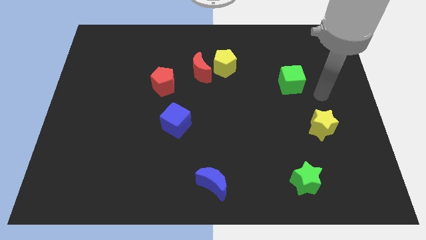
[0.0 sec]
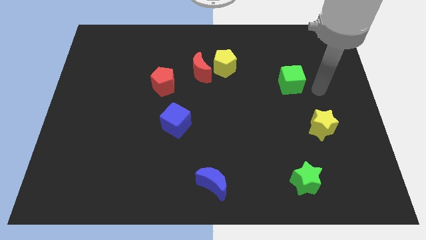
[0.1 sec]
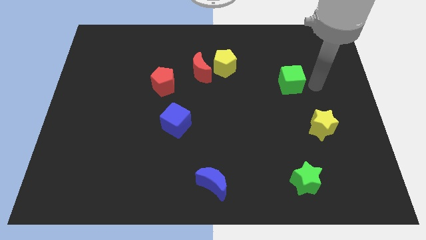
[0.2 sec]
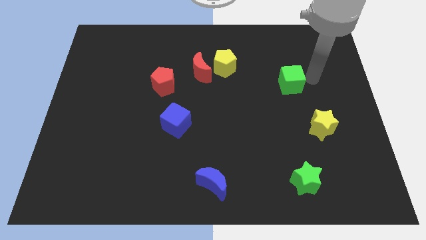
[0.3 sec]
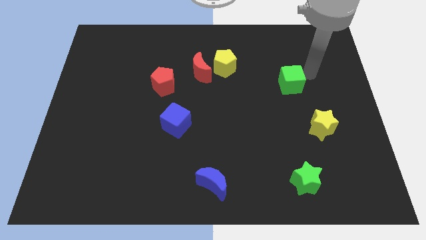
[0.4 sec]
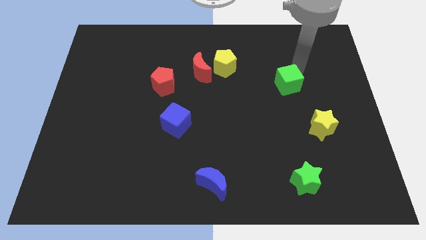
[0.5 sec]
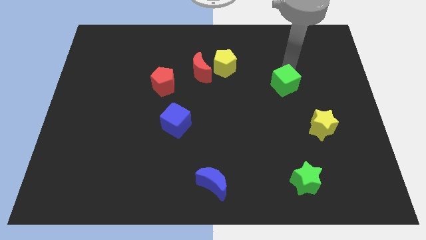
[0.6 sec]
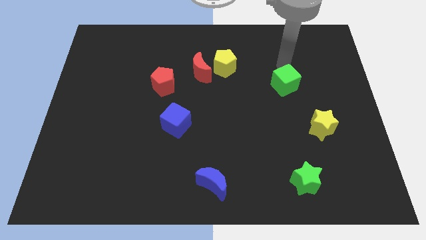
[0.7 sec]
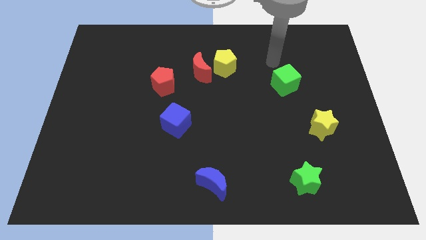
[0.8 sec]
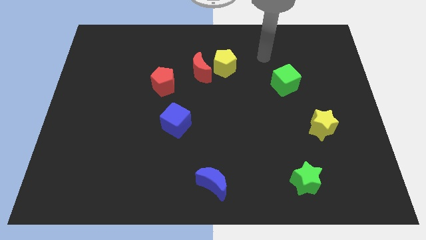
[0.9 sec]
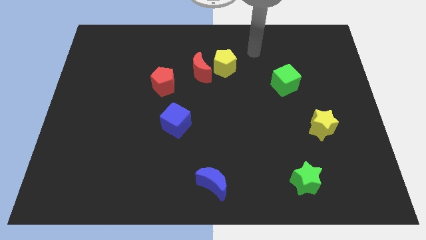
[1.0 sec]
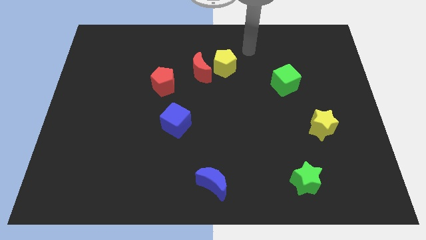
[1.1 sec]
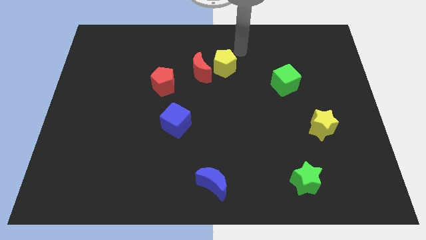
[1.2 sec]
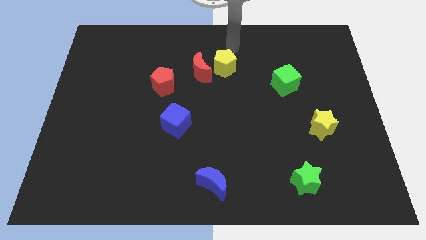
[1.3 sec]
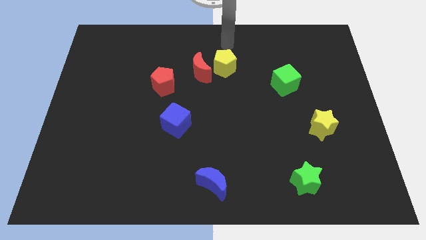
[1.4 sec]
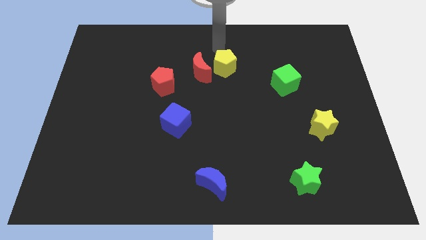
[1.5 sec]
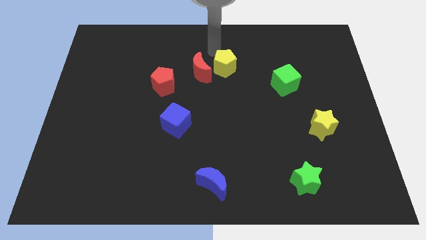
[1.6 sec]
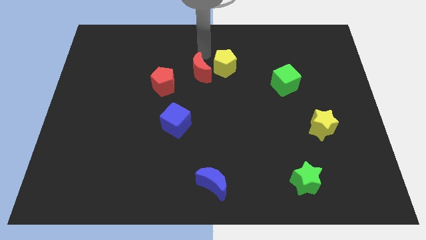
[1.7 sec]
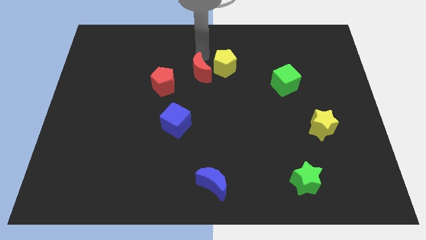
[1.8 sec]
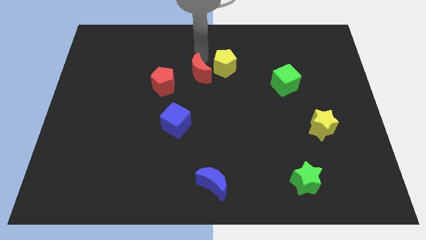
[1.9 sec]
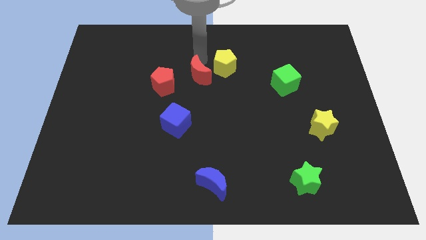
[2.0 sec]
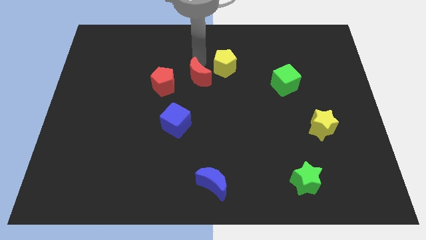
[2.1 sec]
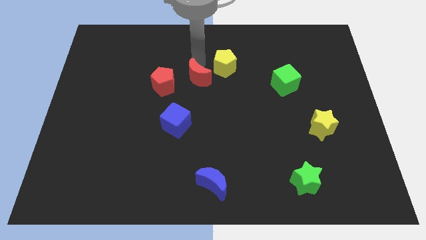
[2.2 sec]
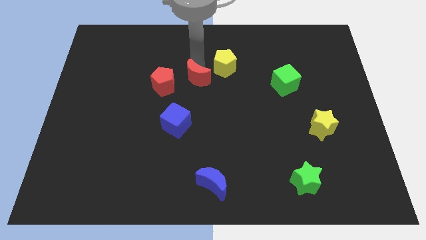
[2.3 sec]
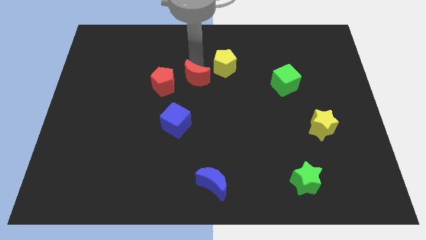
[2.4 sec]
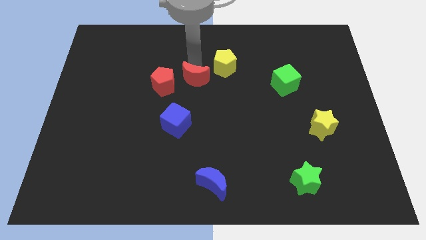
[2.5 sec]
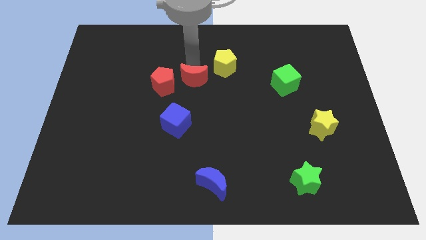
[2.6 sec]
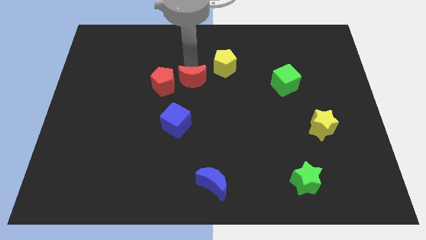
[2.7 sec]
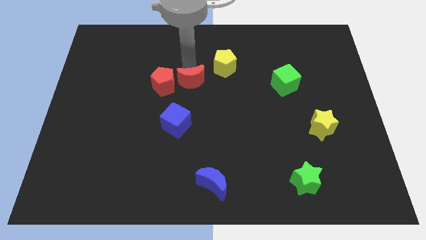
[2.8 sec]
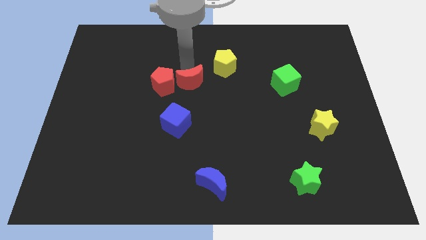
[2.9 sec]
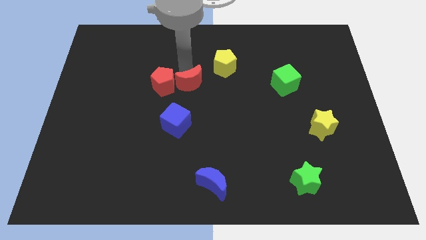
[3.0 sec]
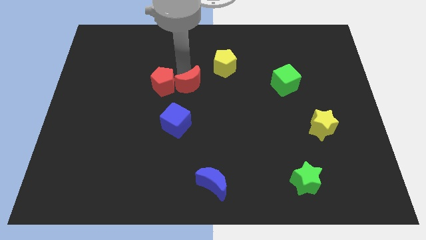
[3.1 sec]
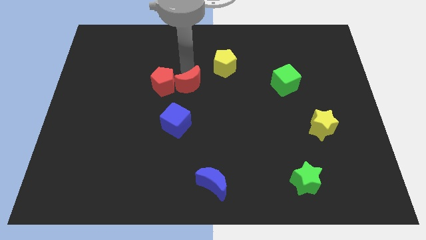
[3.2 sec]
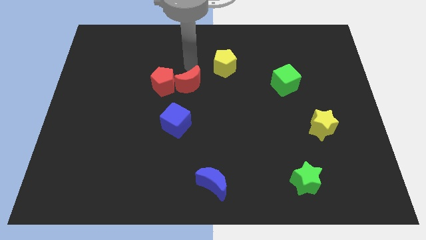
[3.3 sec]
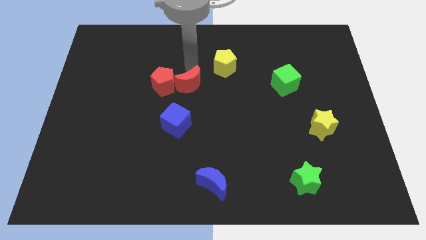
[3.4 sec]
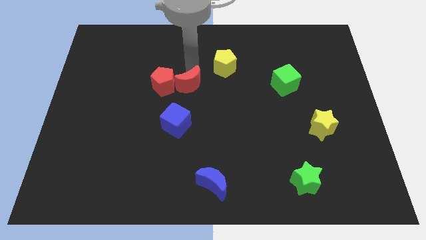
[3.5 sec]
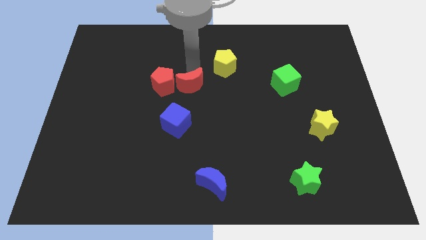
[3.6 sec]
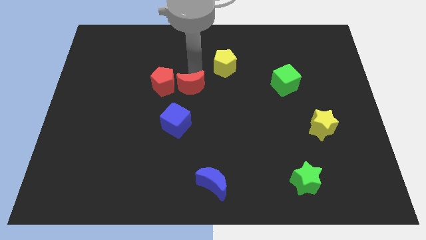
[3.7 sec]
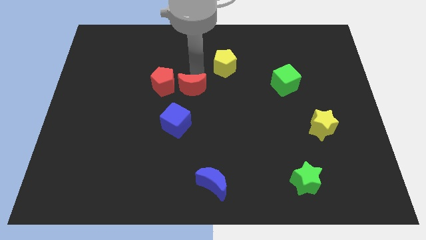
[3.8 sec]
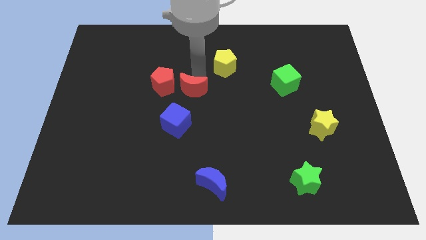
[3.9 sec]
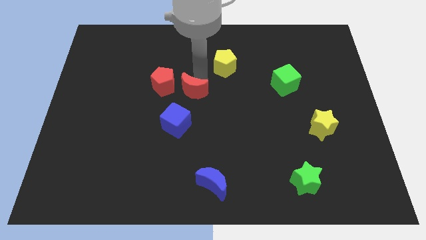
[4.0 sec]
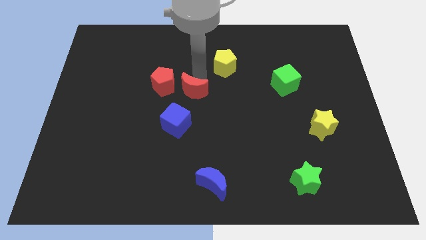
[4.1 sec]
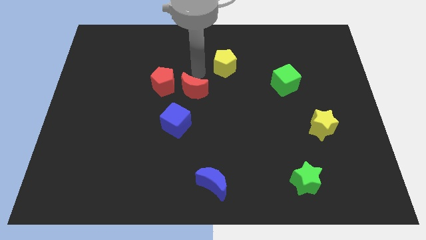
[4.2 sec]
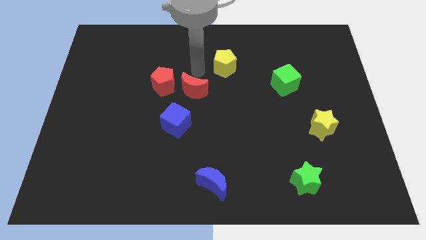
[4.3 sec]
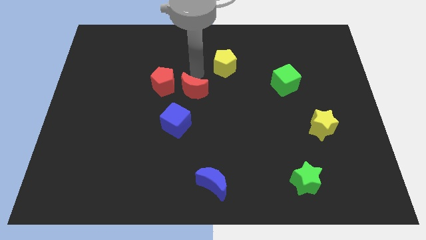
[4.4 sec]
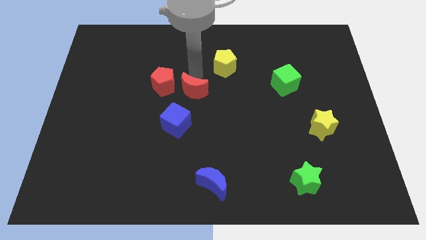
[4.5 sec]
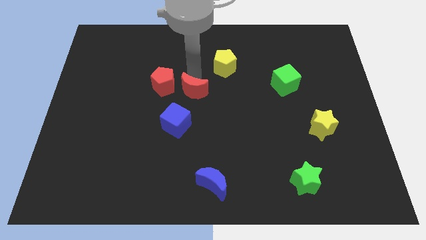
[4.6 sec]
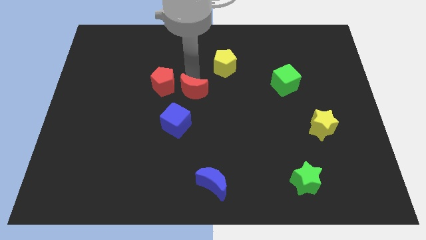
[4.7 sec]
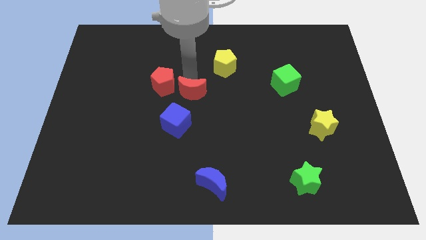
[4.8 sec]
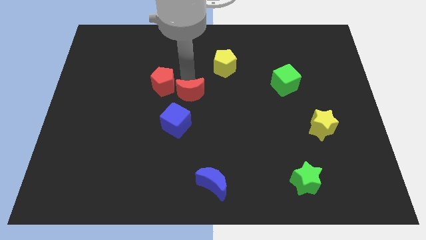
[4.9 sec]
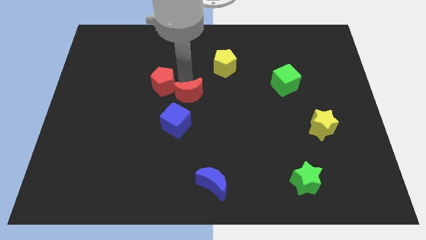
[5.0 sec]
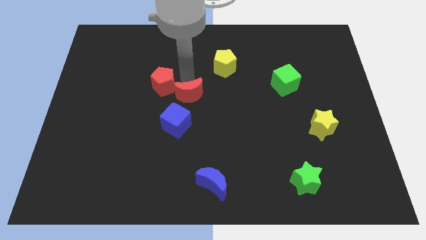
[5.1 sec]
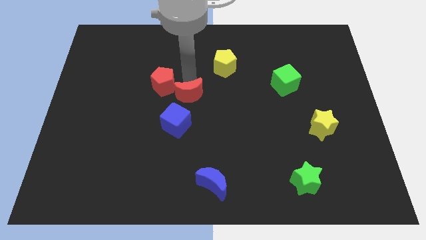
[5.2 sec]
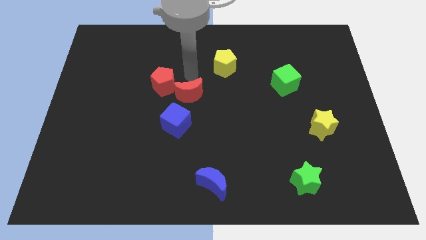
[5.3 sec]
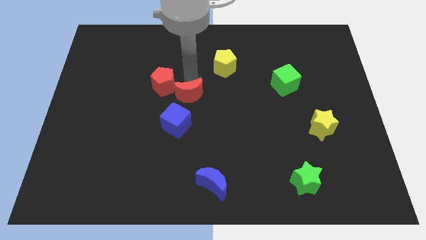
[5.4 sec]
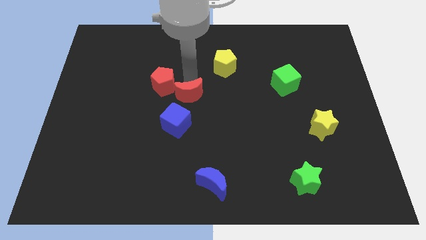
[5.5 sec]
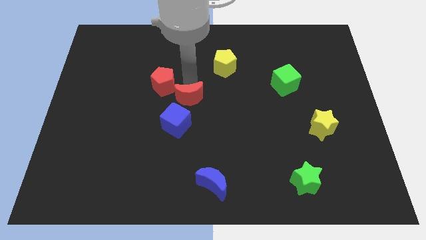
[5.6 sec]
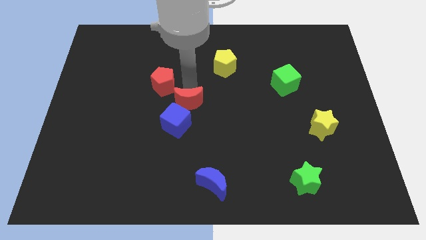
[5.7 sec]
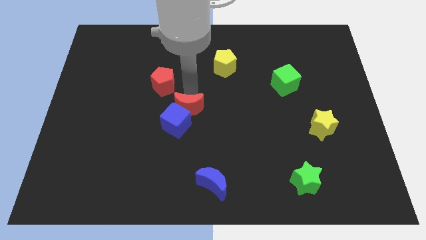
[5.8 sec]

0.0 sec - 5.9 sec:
put the red moon close to the blue cube

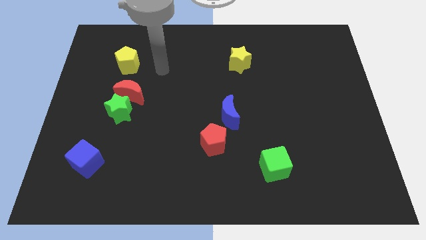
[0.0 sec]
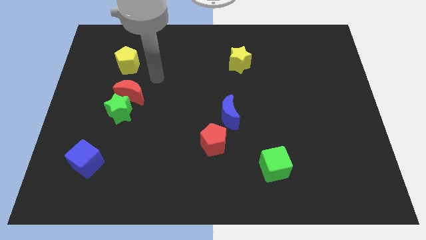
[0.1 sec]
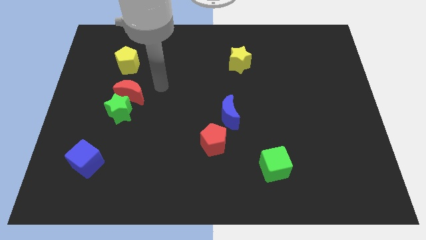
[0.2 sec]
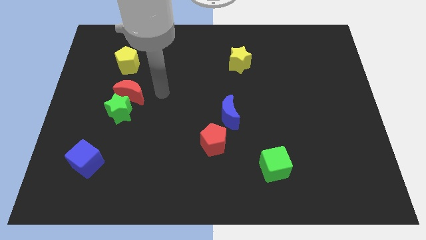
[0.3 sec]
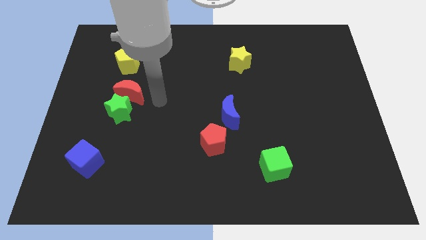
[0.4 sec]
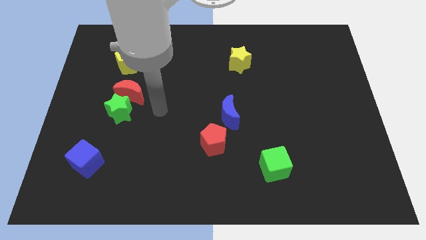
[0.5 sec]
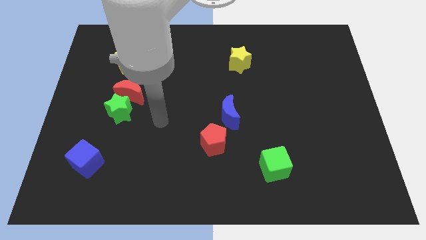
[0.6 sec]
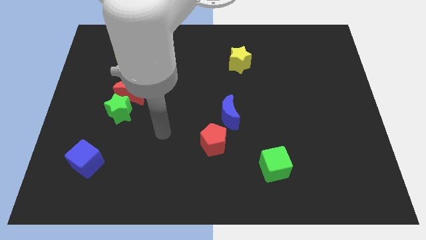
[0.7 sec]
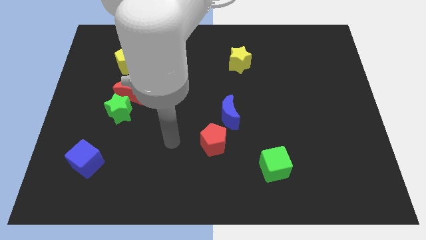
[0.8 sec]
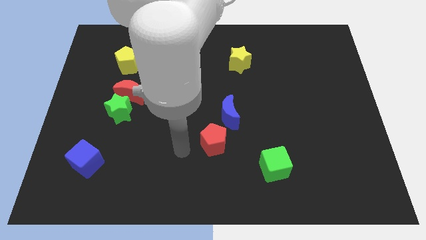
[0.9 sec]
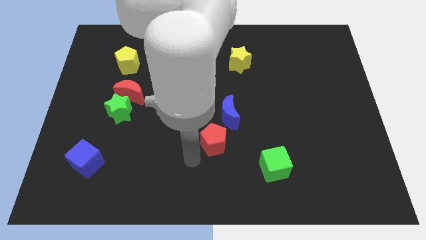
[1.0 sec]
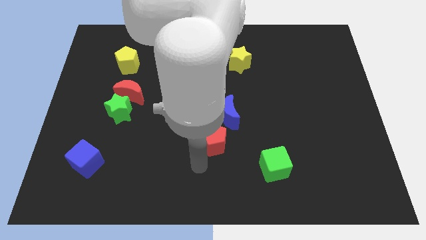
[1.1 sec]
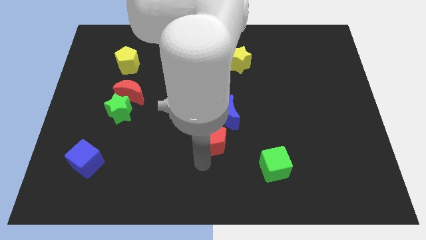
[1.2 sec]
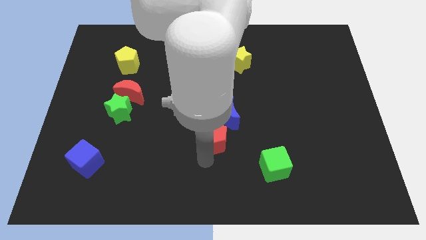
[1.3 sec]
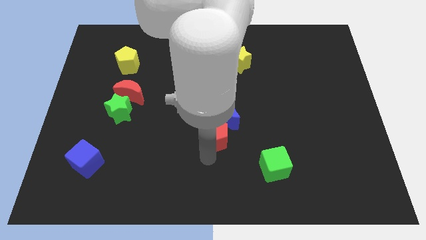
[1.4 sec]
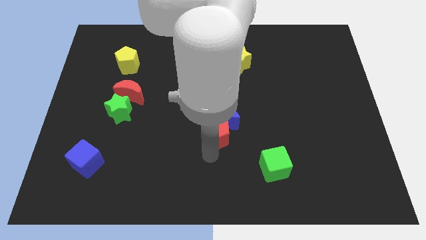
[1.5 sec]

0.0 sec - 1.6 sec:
put the red pentagon to the blue moon
